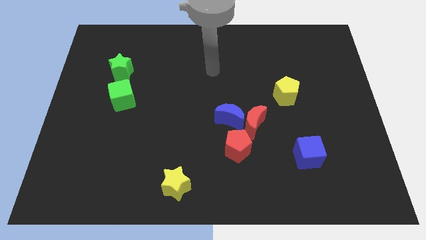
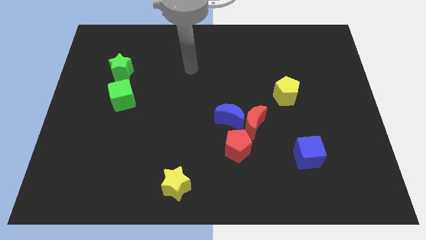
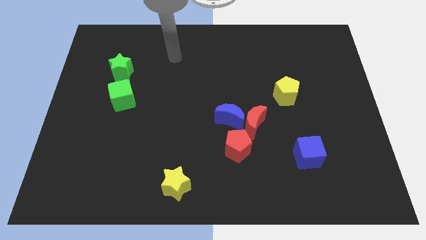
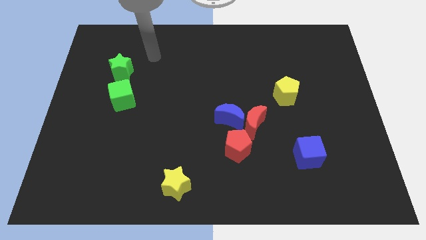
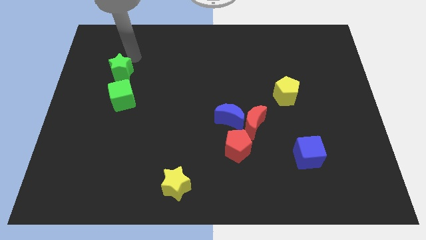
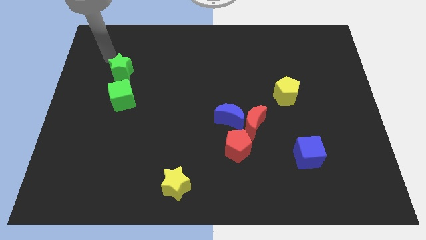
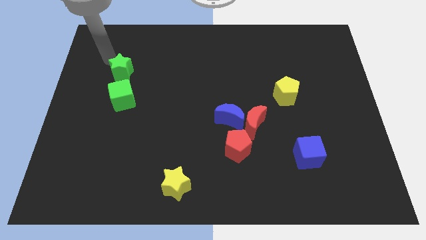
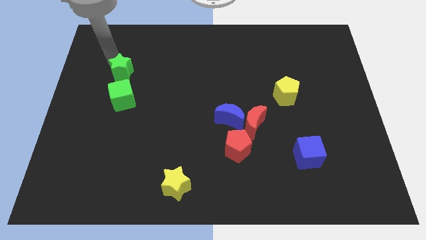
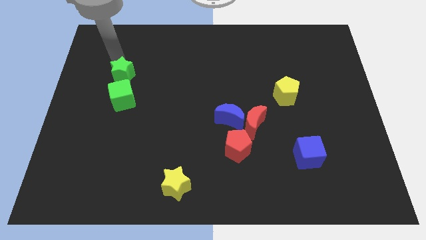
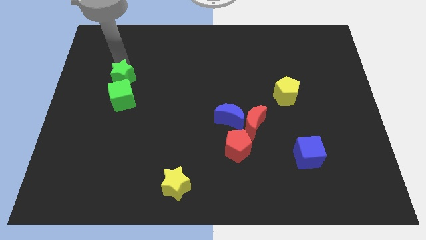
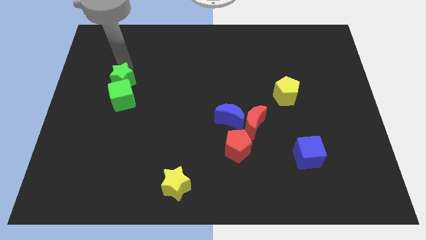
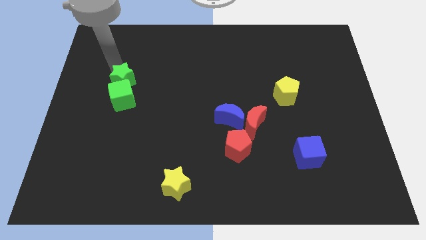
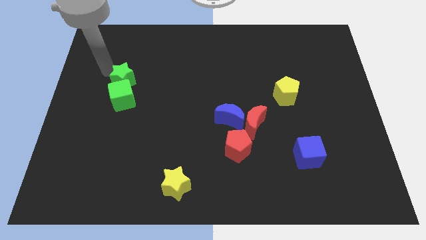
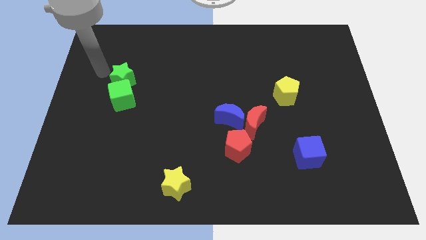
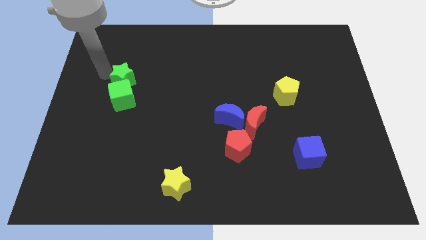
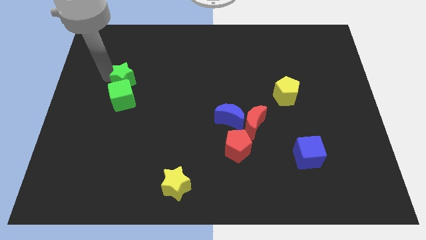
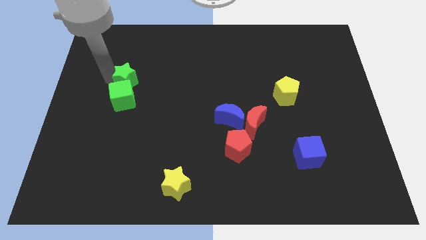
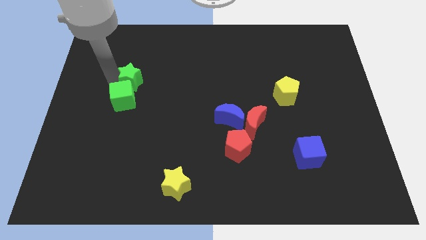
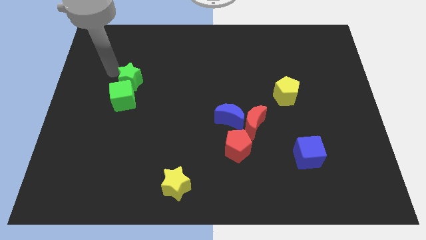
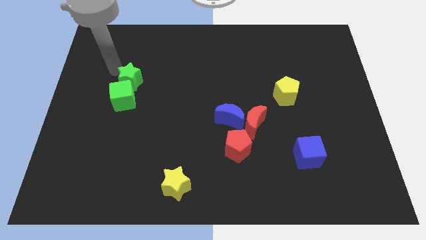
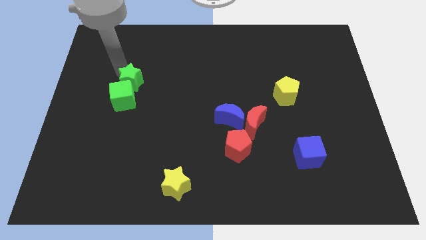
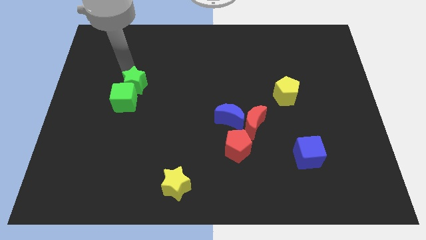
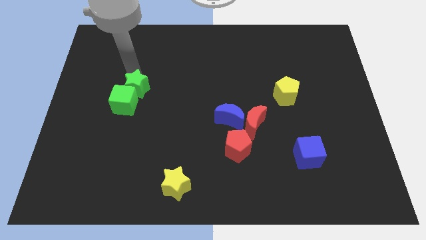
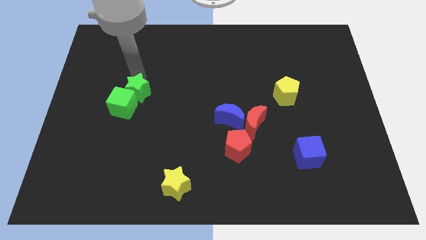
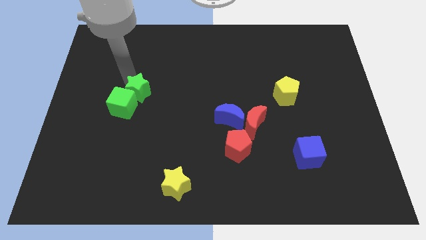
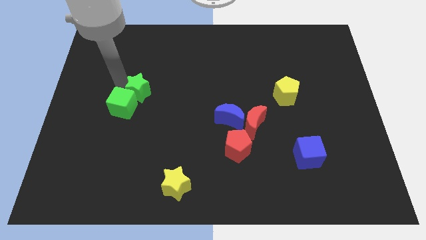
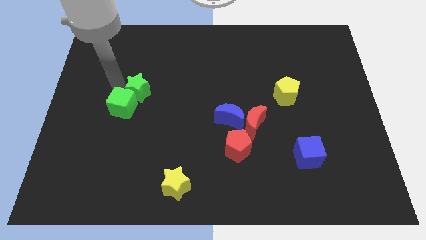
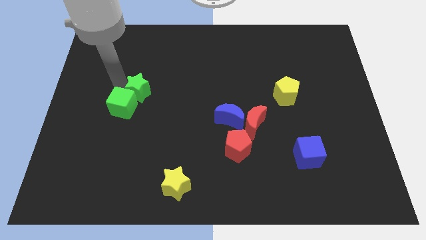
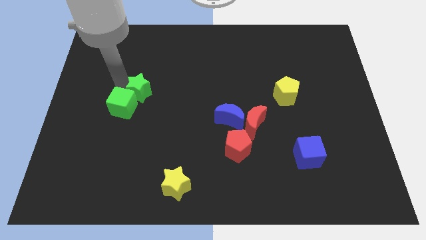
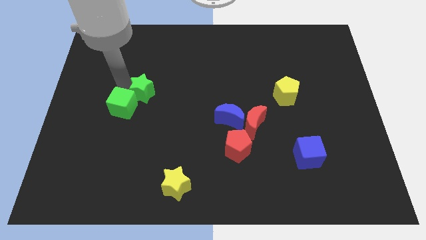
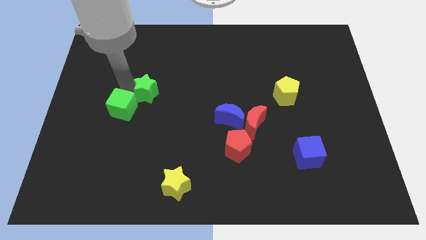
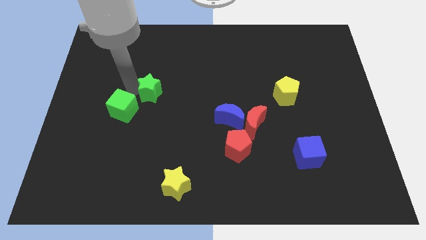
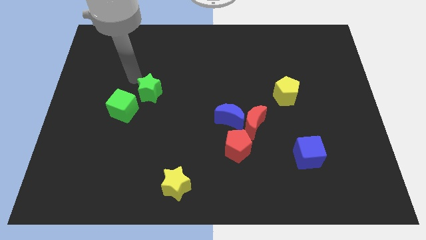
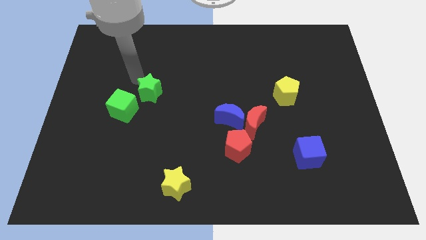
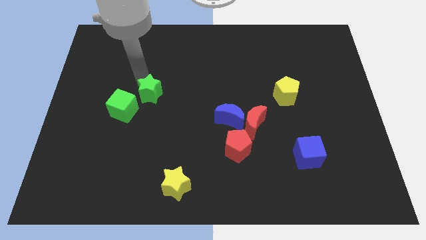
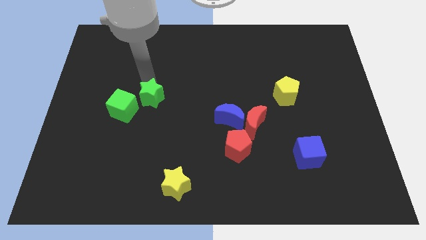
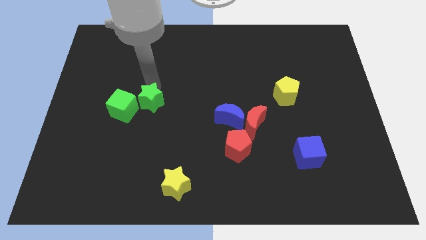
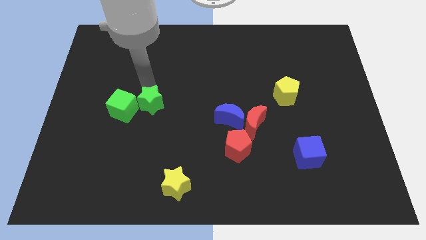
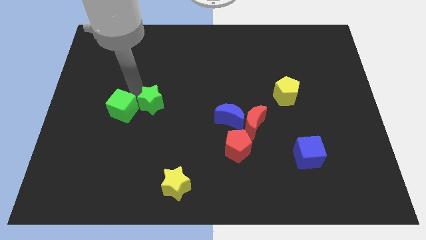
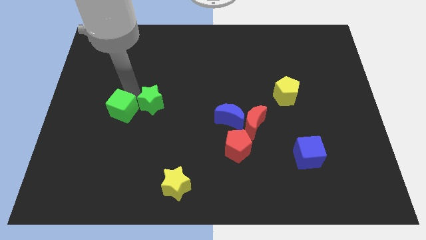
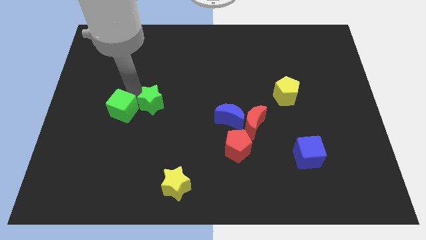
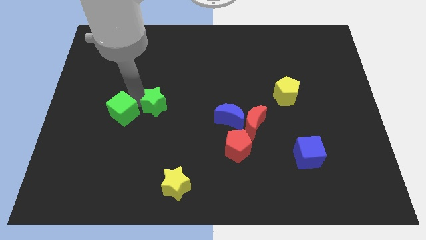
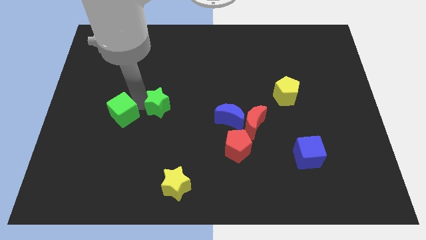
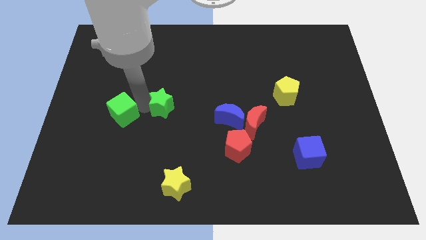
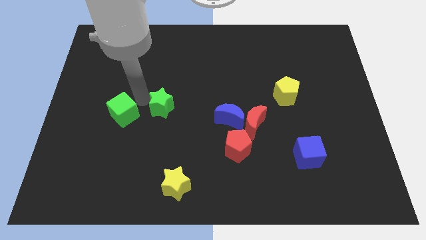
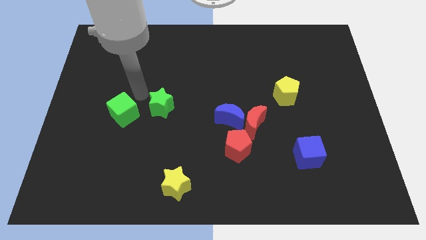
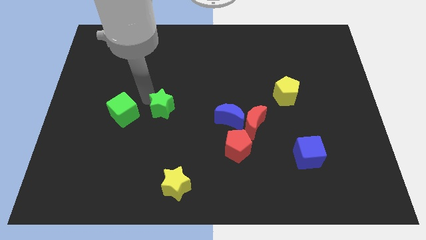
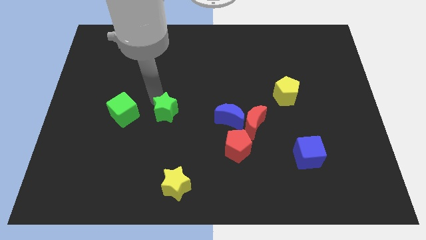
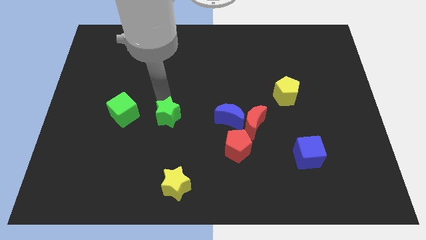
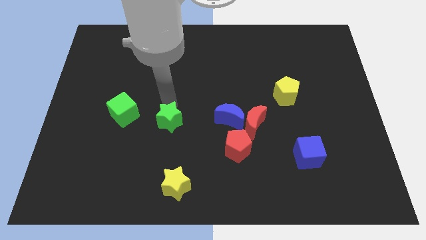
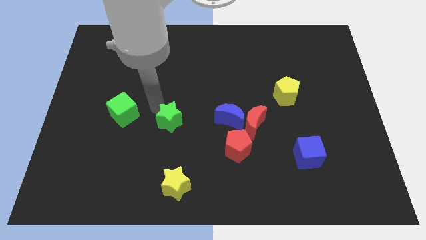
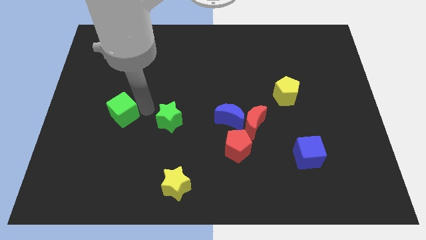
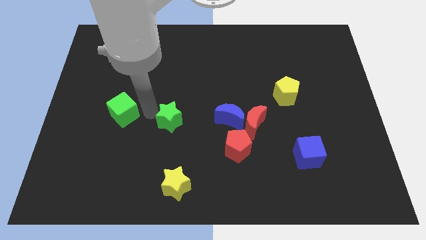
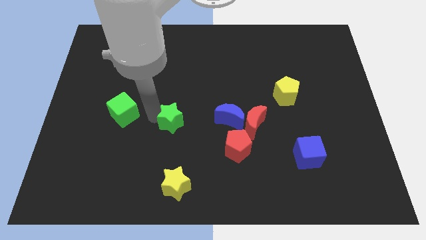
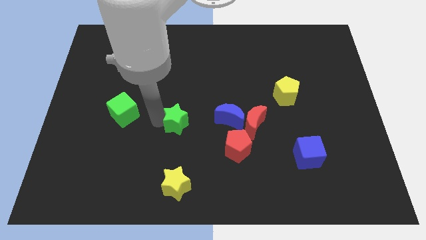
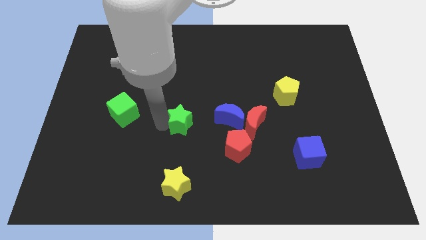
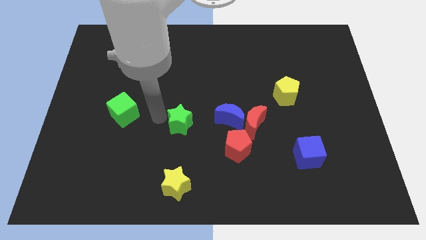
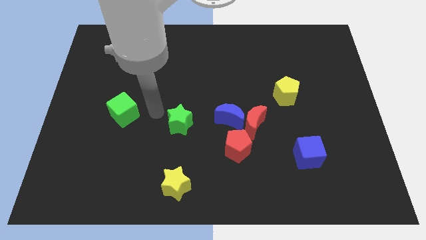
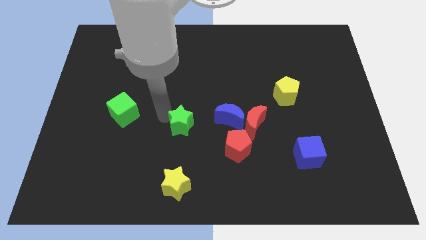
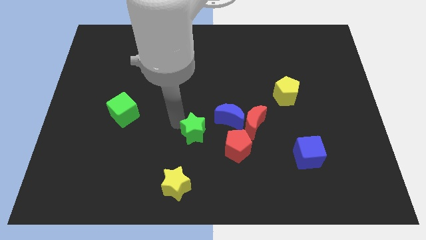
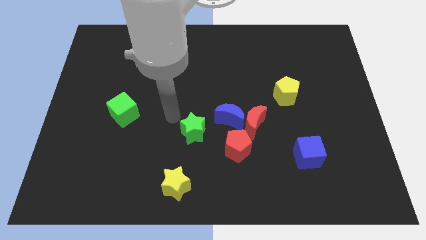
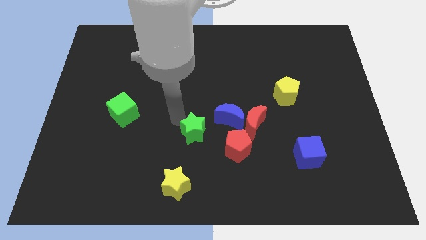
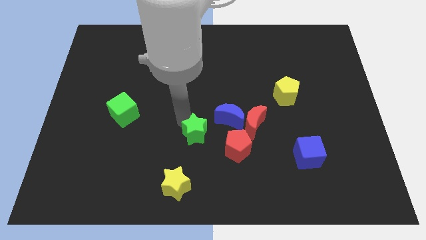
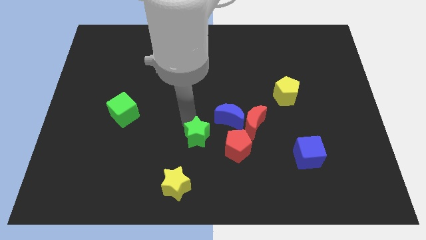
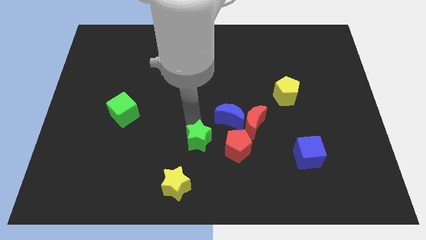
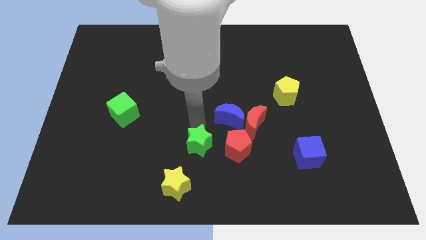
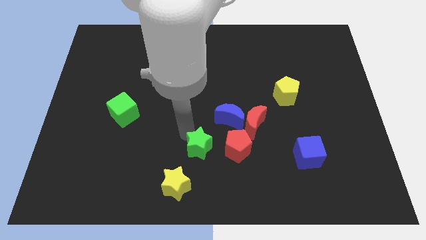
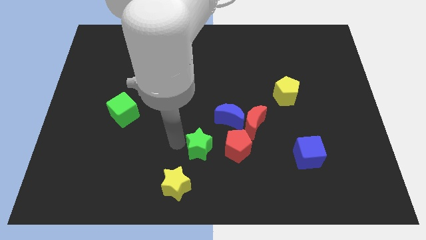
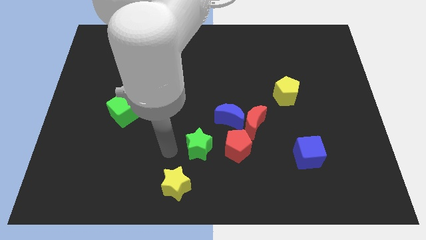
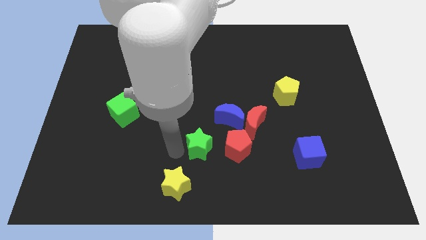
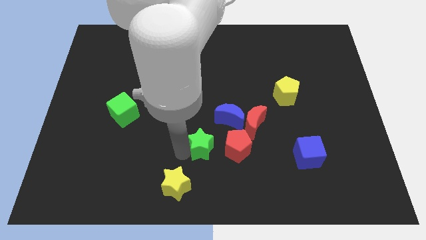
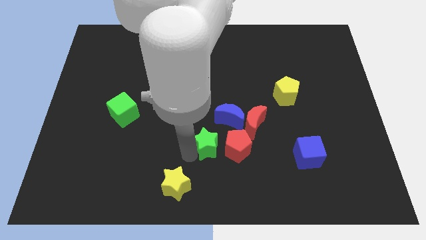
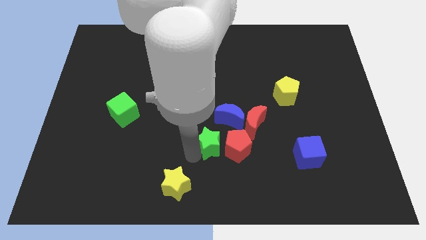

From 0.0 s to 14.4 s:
put the green star to the bottom left of the red moon
